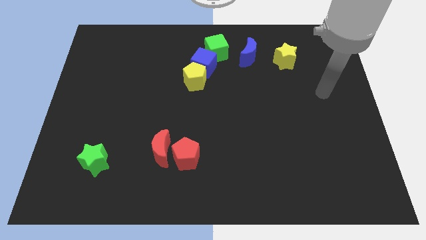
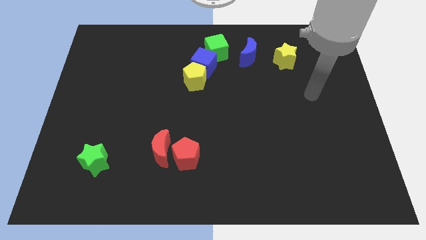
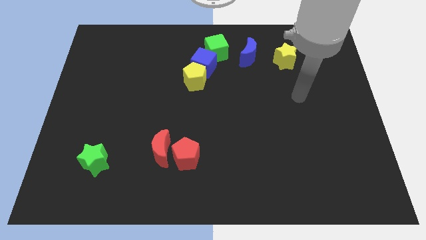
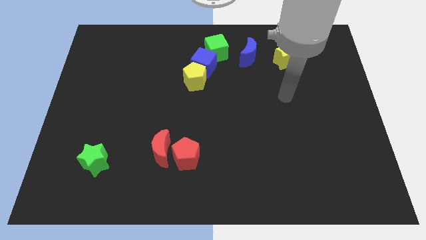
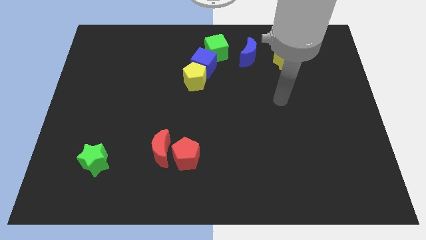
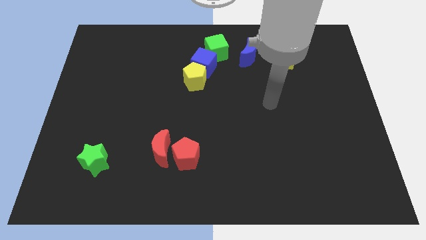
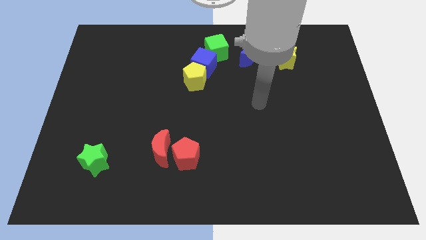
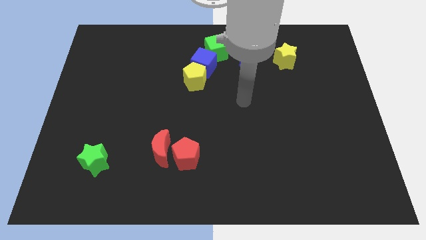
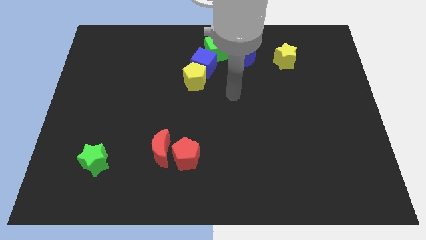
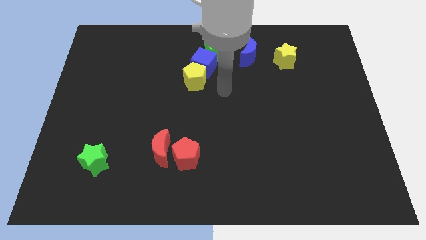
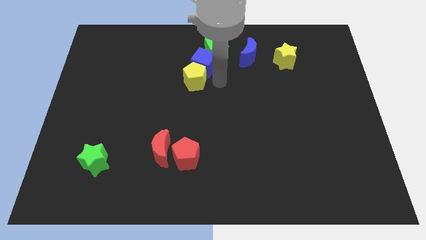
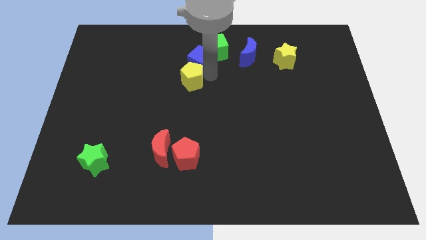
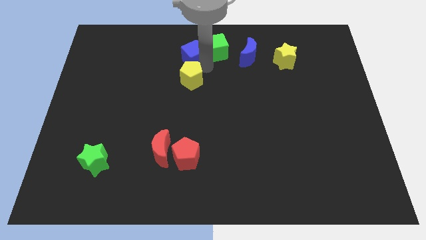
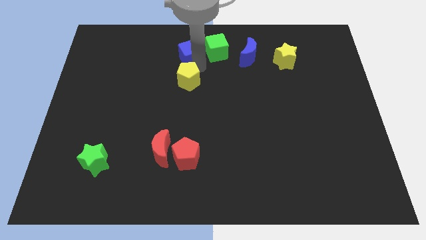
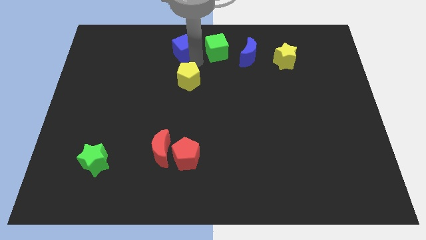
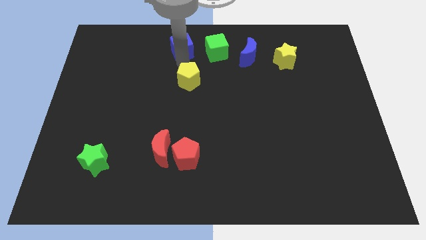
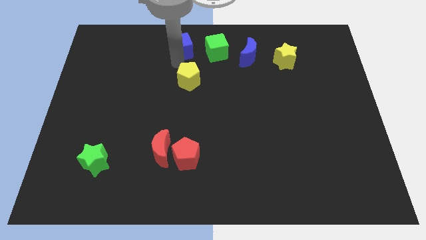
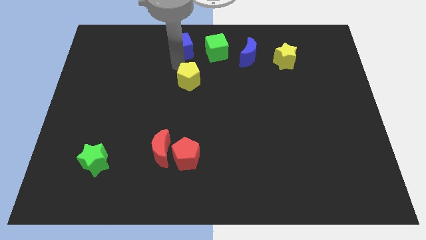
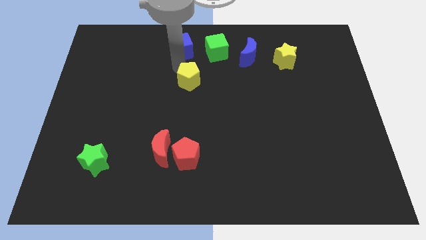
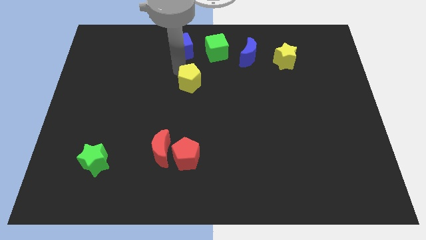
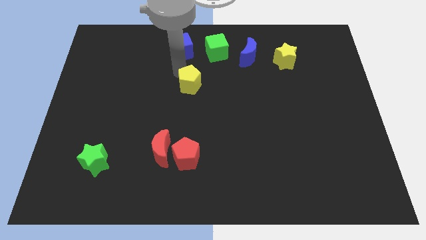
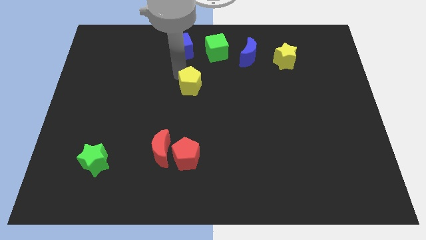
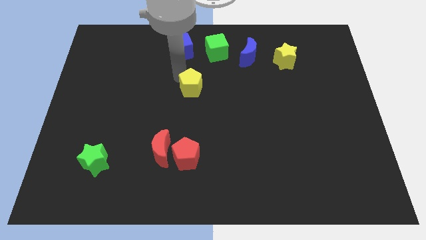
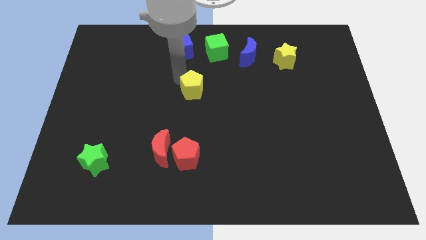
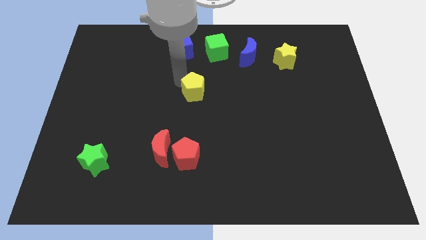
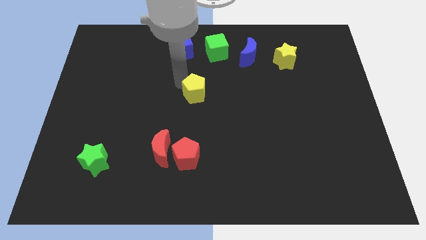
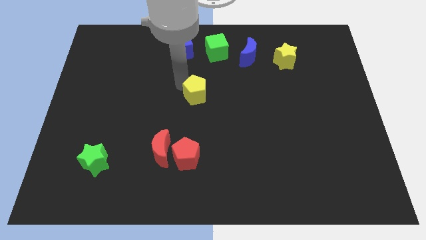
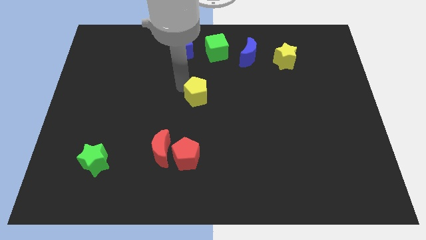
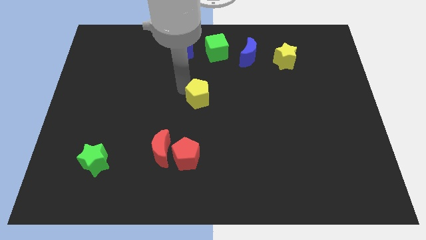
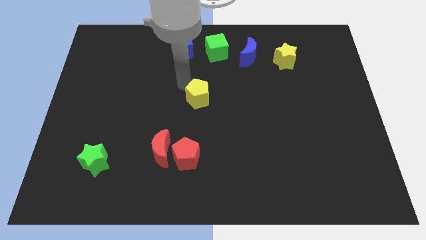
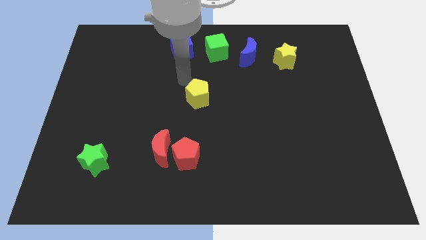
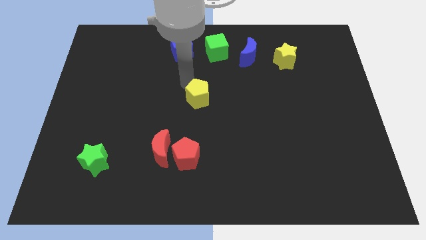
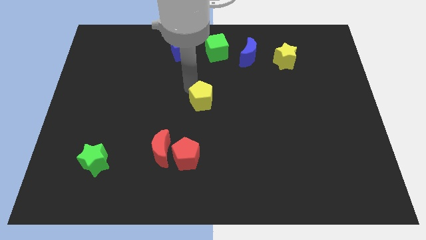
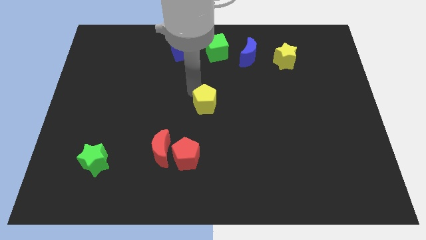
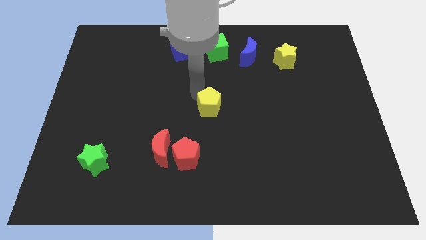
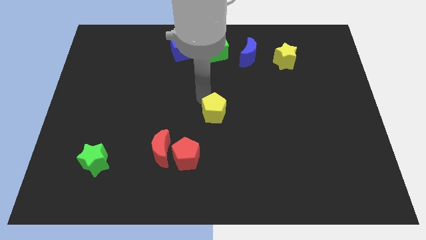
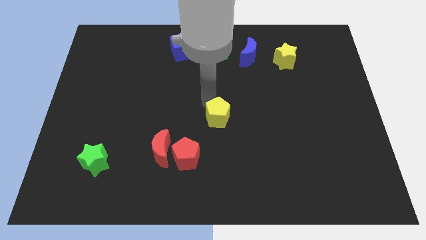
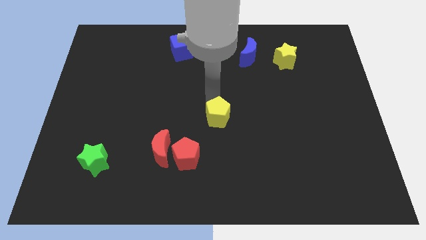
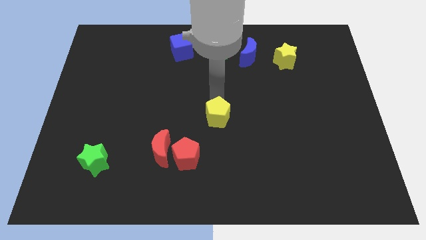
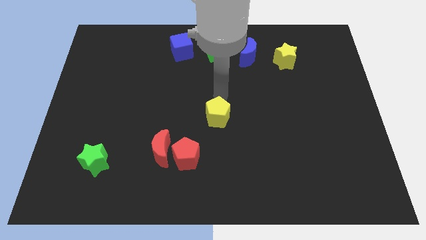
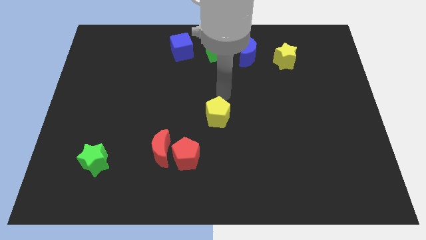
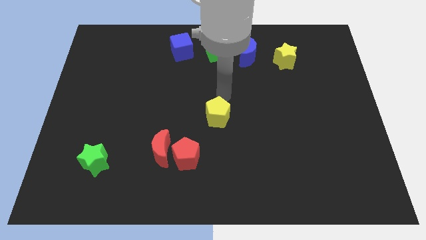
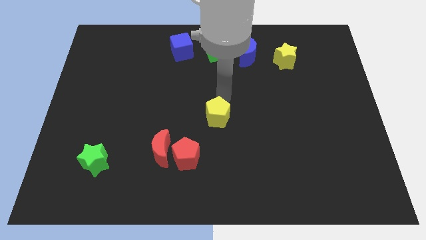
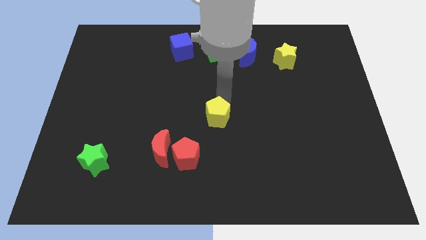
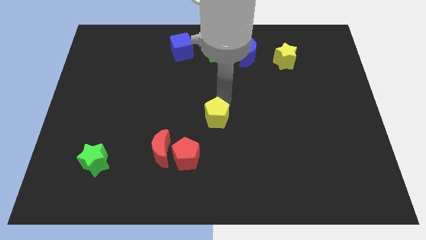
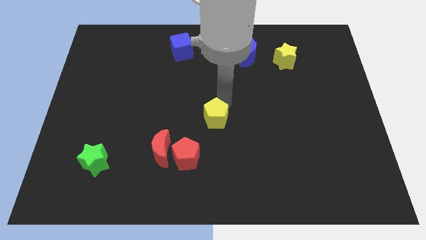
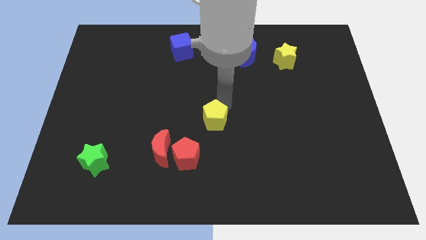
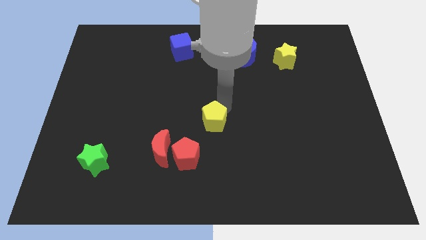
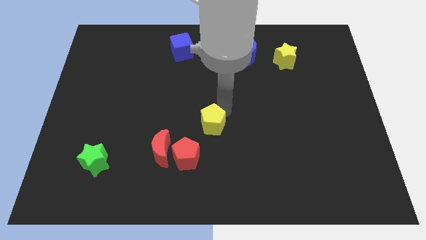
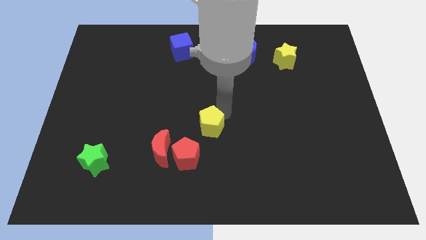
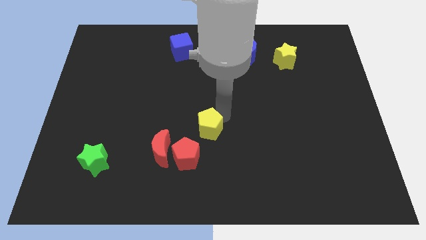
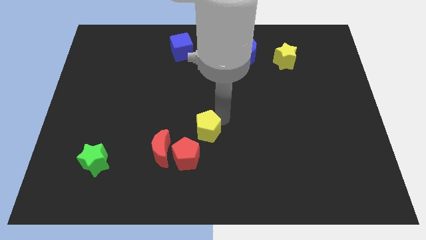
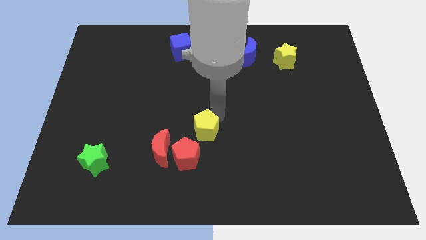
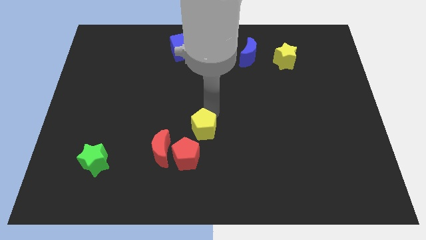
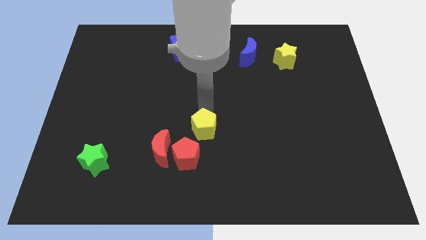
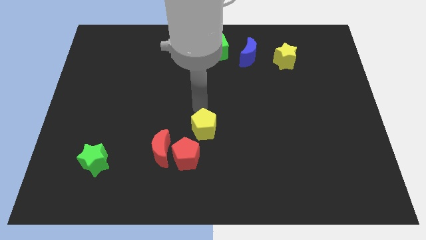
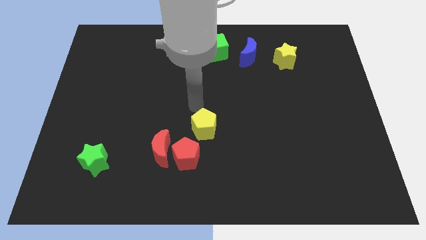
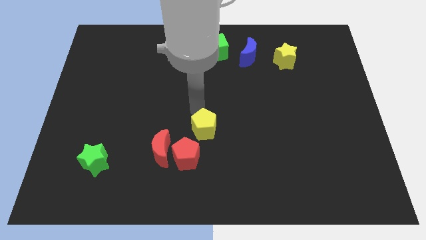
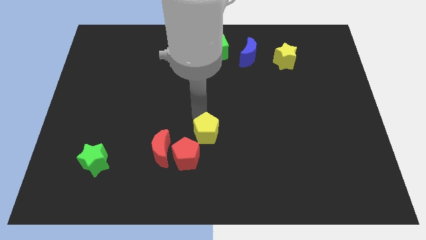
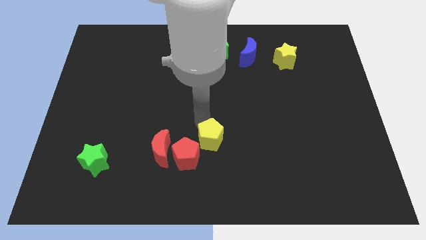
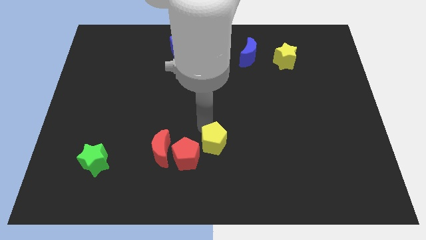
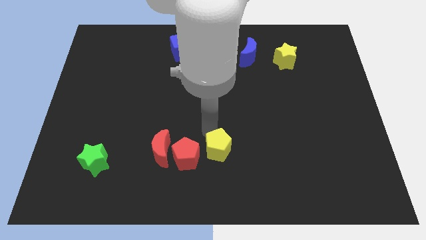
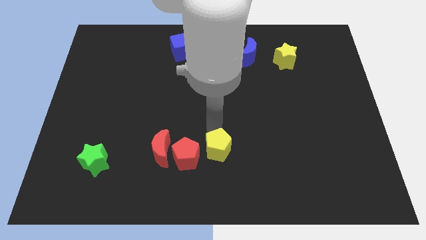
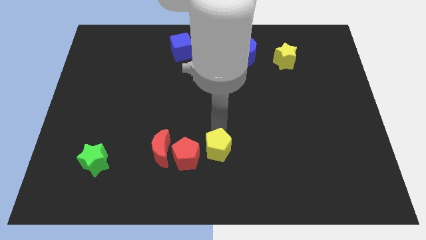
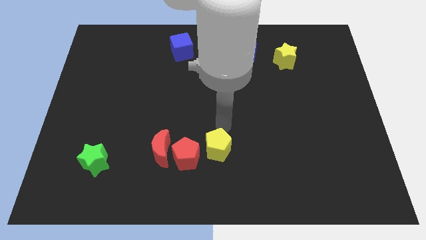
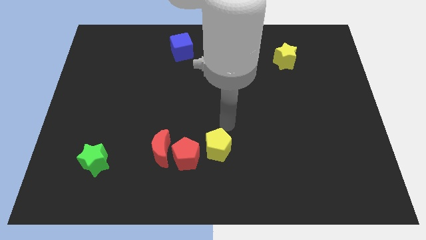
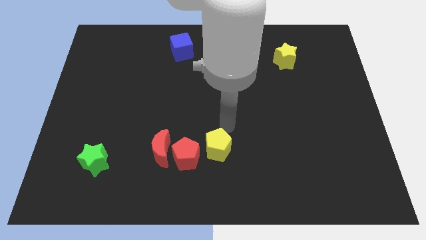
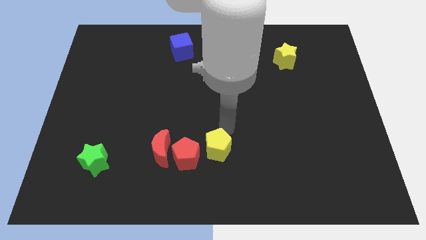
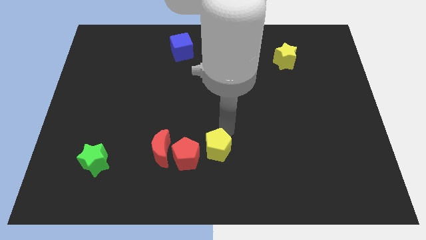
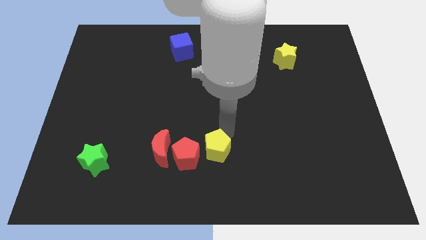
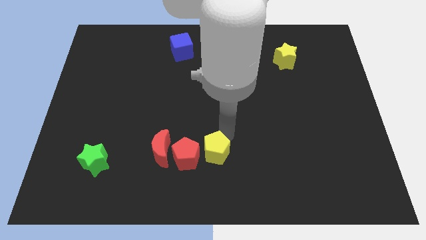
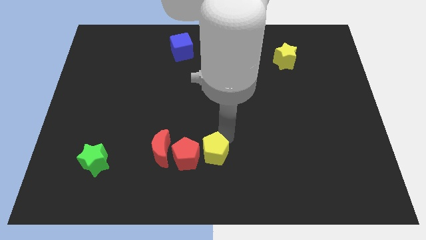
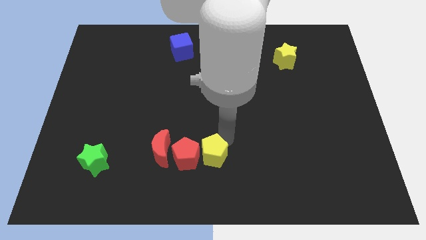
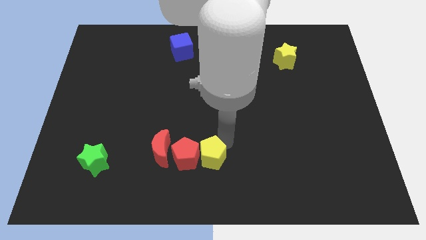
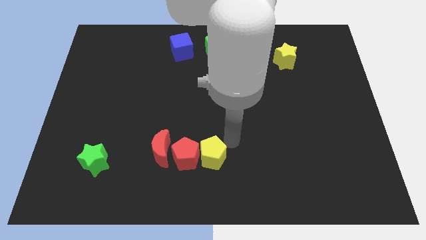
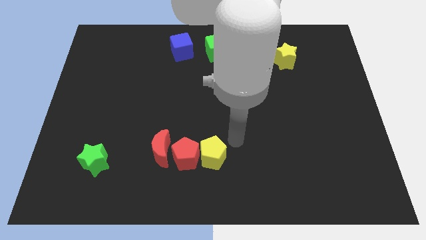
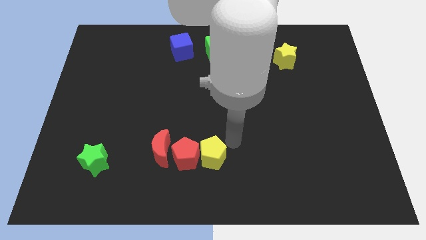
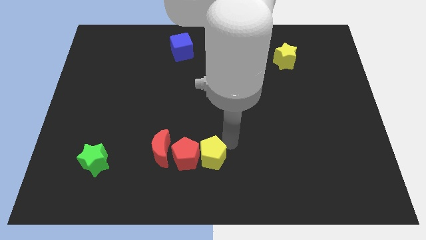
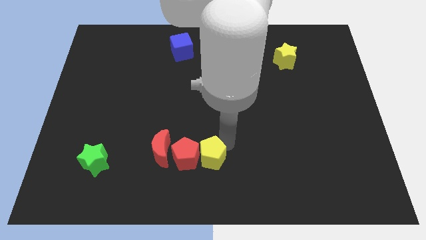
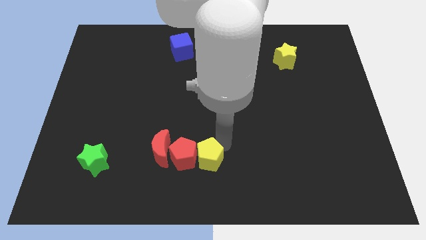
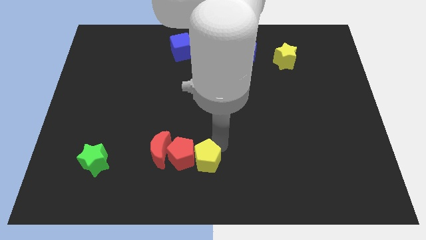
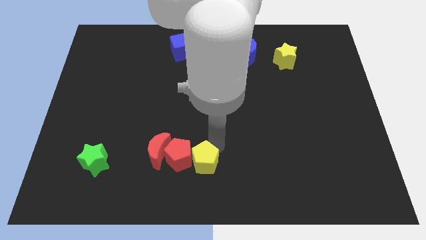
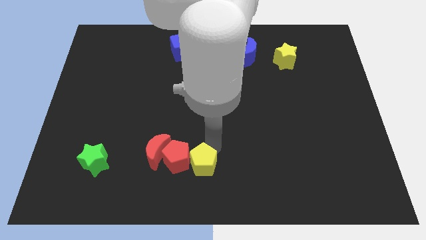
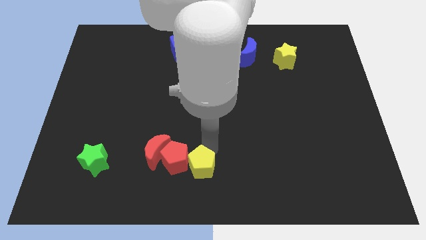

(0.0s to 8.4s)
push the yellow pentagon to the bottom right of the red moon
